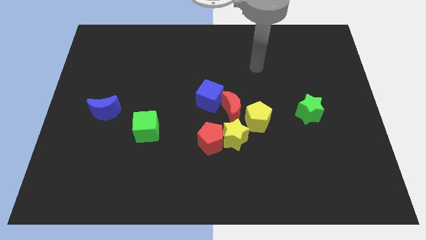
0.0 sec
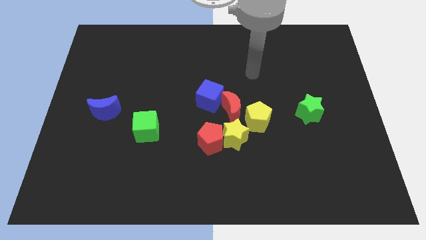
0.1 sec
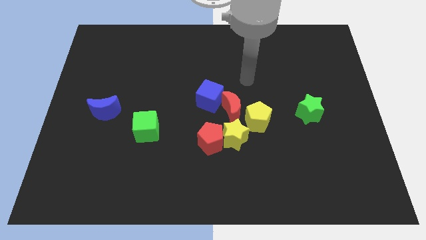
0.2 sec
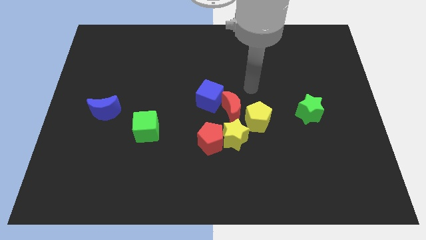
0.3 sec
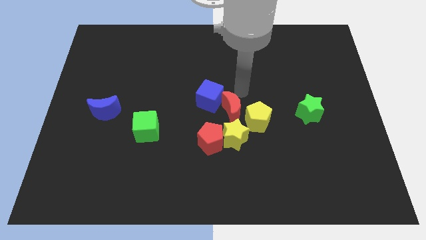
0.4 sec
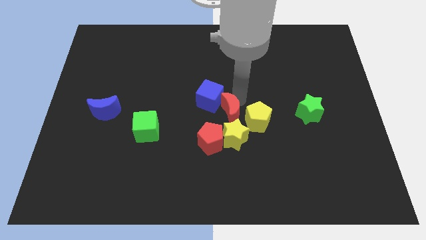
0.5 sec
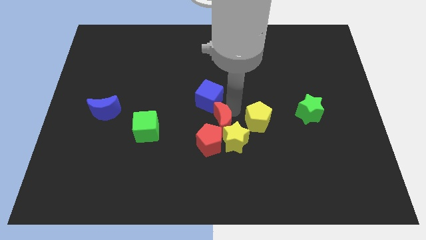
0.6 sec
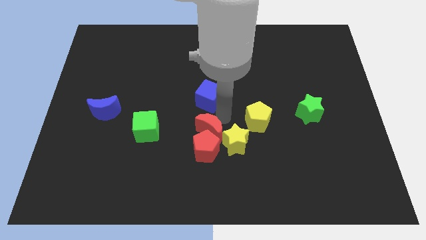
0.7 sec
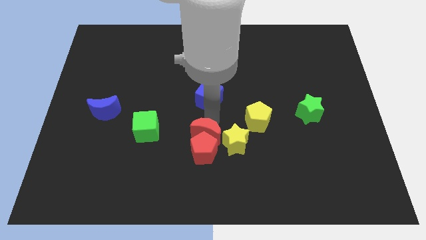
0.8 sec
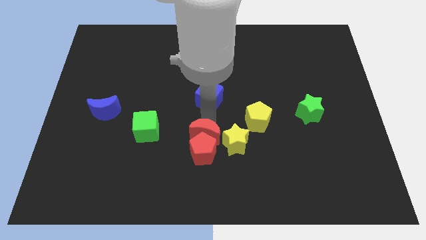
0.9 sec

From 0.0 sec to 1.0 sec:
separate the blue cube from the red moon

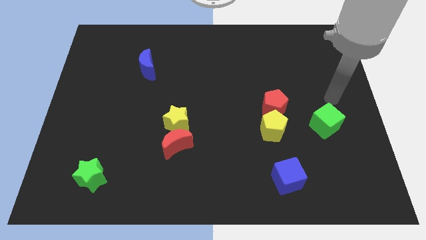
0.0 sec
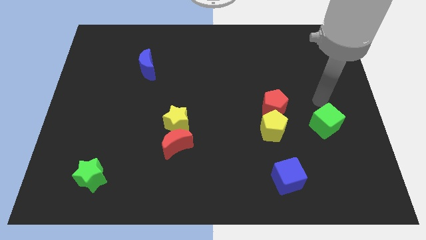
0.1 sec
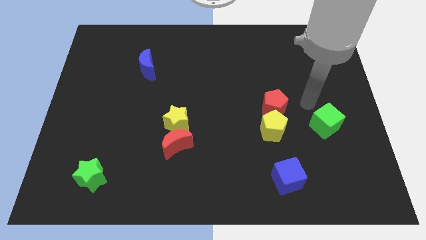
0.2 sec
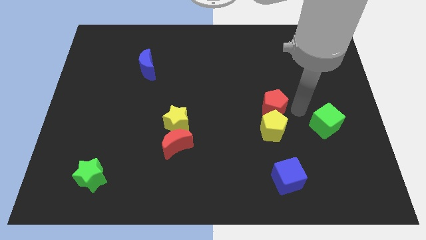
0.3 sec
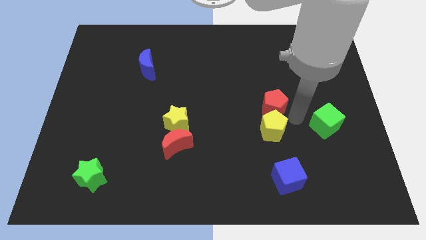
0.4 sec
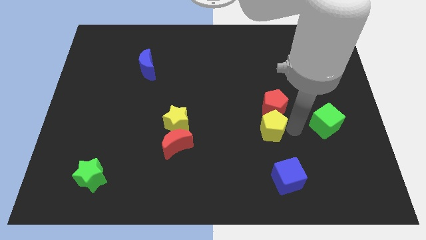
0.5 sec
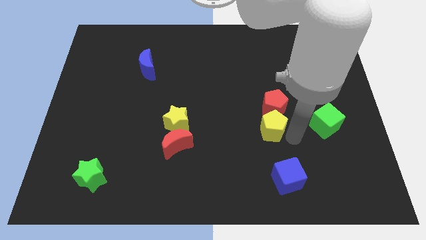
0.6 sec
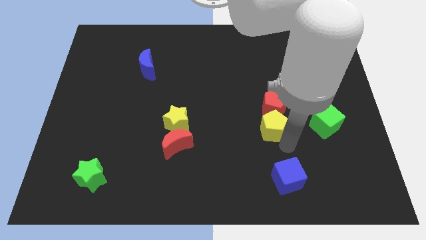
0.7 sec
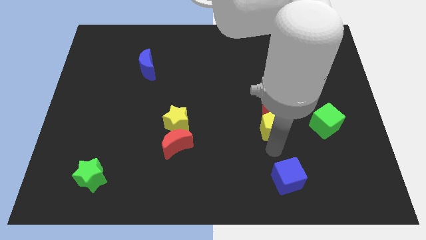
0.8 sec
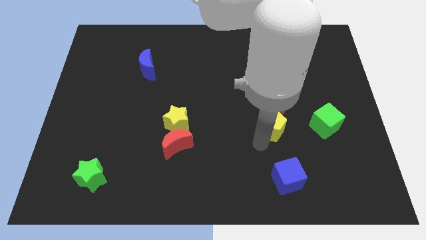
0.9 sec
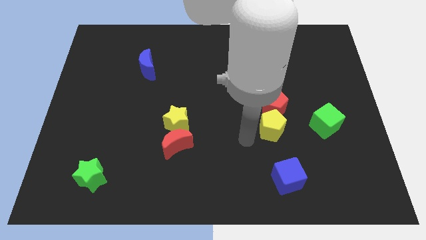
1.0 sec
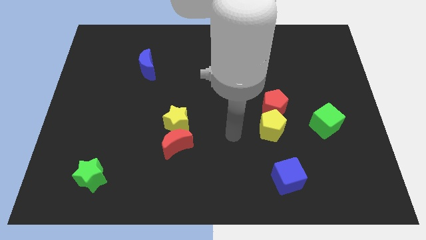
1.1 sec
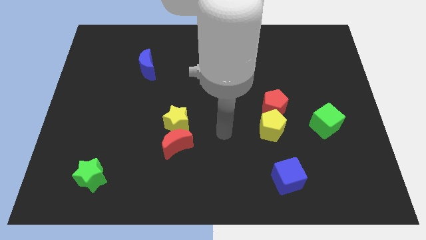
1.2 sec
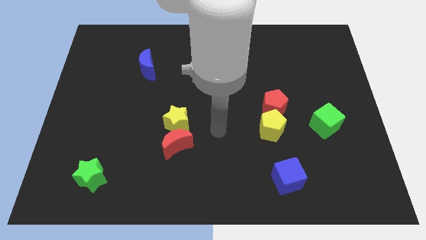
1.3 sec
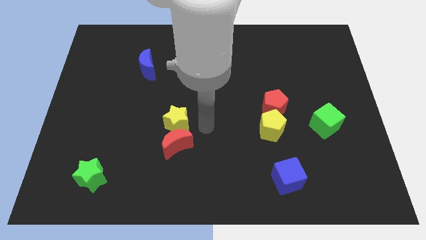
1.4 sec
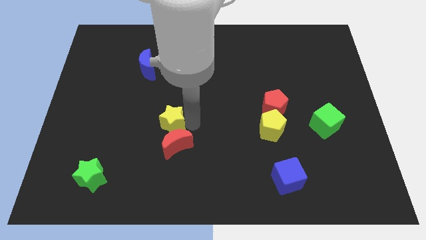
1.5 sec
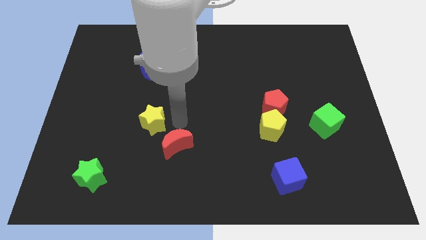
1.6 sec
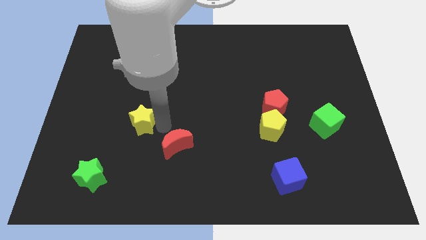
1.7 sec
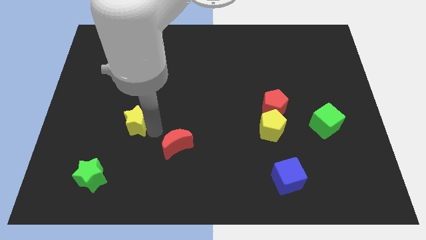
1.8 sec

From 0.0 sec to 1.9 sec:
pull the red moon apart from the yellow star

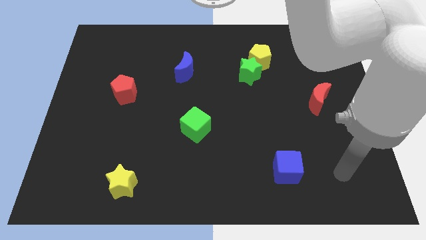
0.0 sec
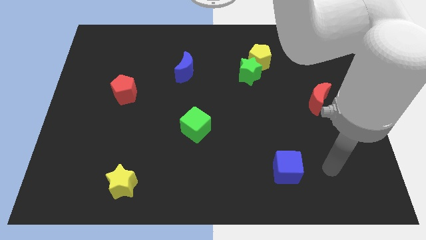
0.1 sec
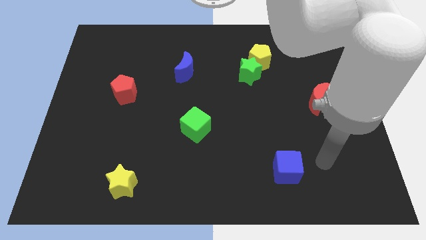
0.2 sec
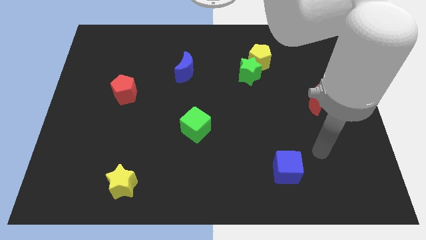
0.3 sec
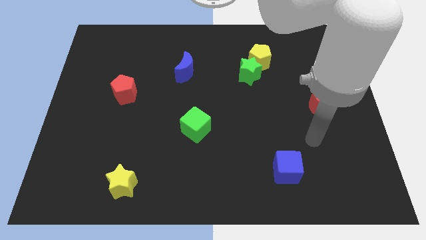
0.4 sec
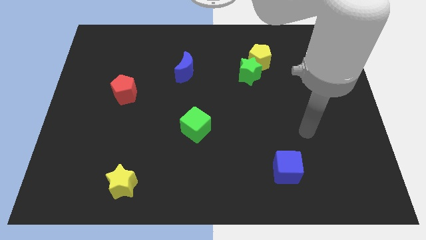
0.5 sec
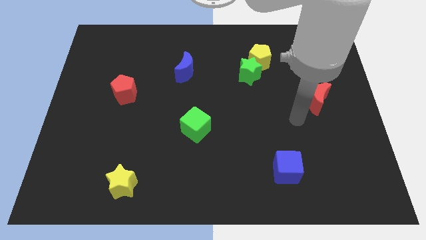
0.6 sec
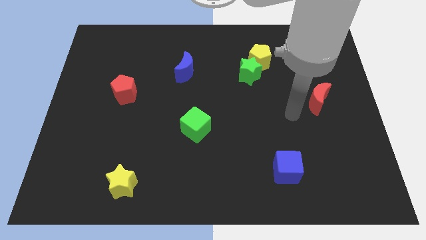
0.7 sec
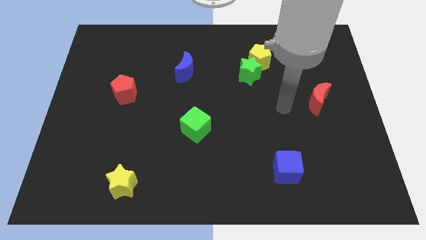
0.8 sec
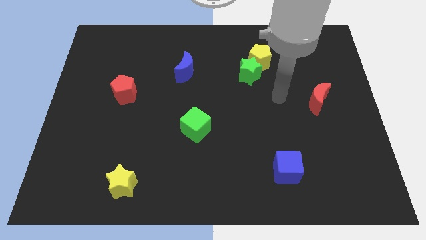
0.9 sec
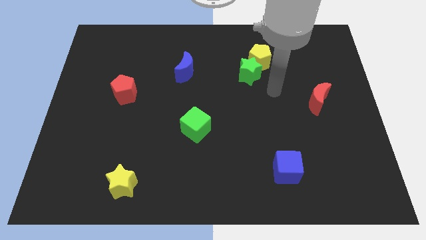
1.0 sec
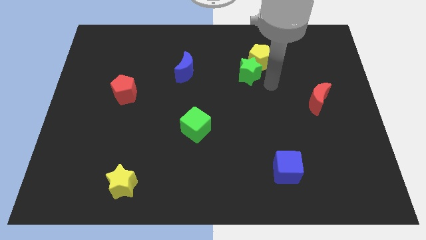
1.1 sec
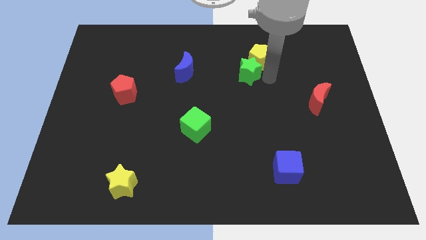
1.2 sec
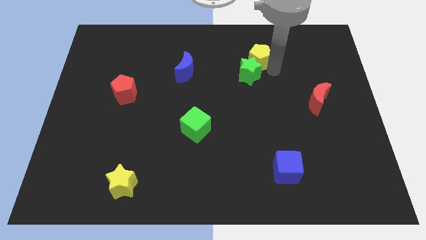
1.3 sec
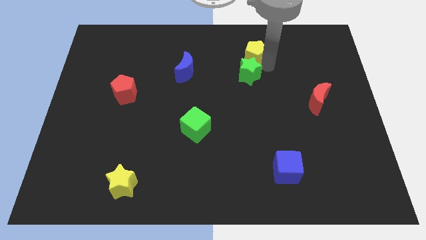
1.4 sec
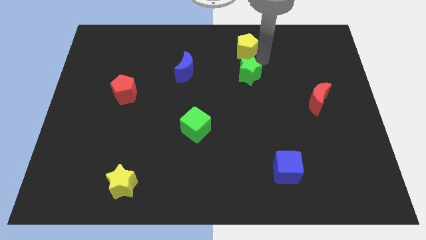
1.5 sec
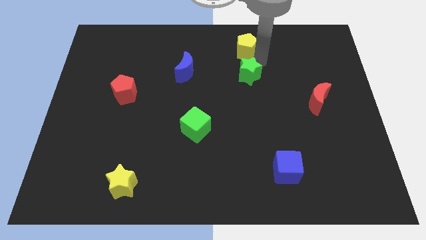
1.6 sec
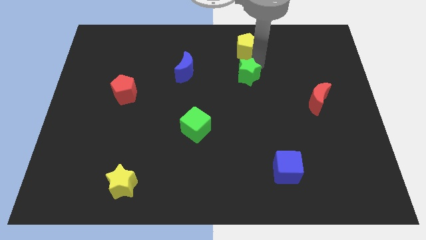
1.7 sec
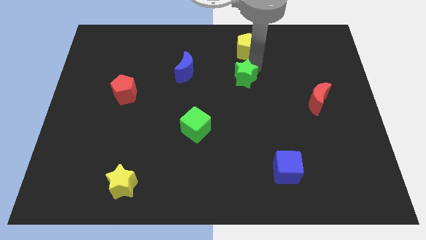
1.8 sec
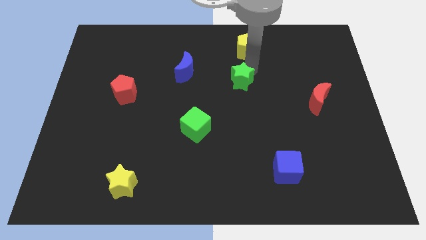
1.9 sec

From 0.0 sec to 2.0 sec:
move the green star away from the yellow pentagon

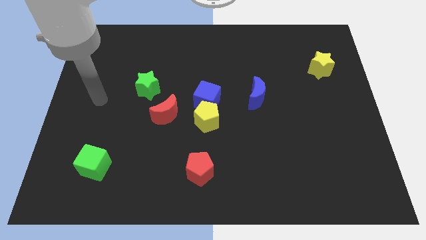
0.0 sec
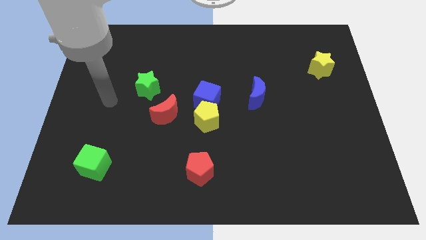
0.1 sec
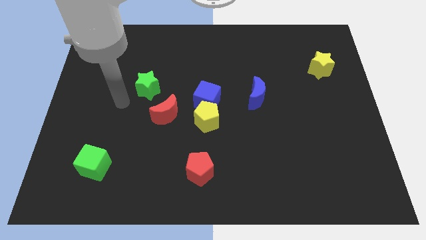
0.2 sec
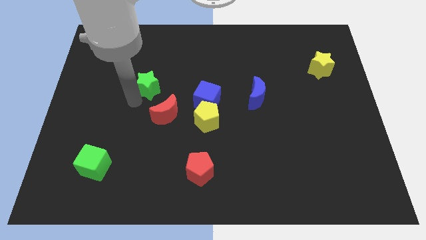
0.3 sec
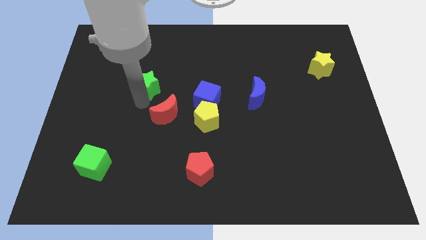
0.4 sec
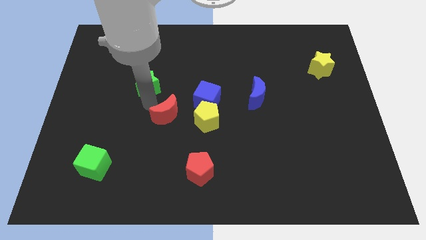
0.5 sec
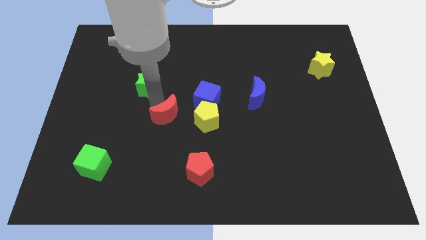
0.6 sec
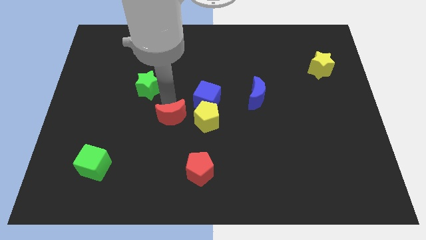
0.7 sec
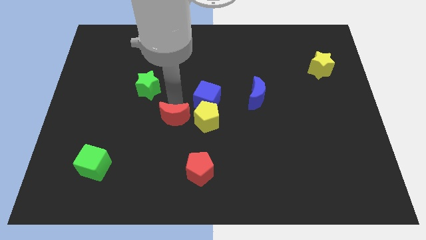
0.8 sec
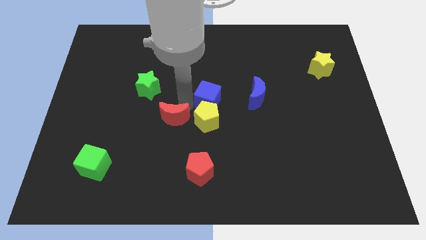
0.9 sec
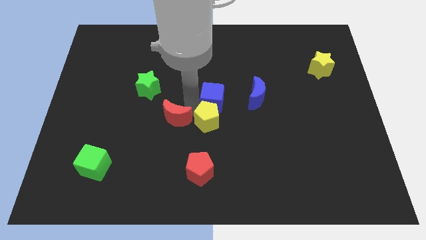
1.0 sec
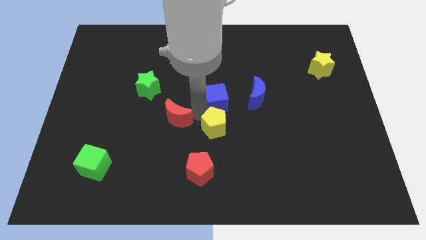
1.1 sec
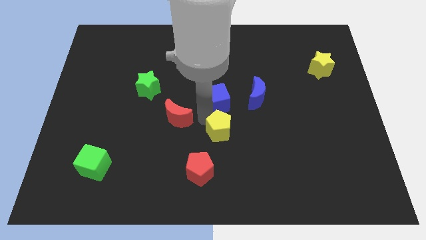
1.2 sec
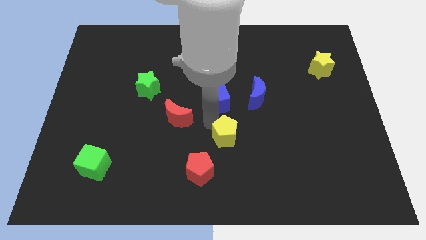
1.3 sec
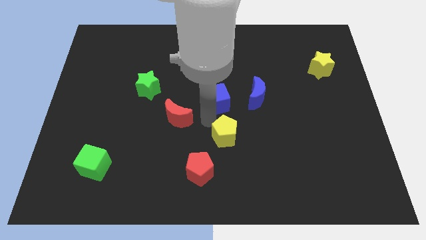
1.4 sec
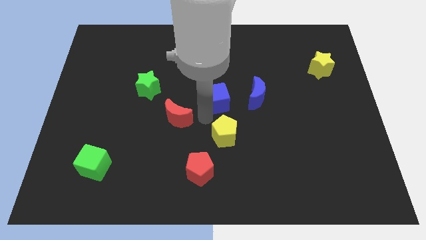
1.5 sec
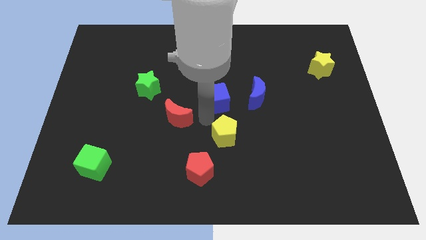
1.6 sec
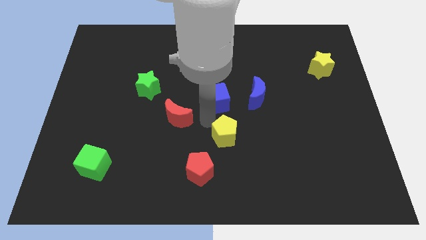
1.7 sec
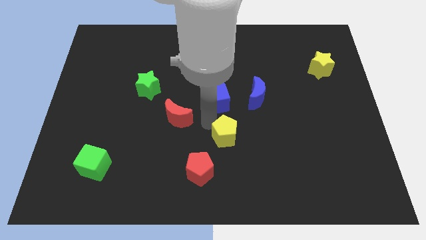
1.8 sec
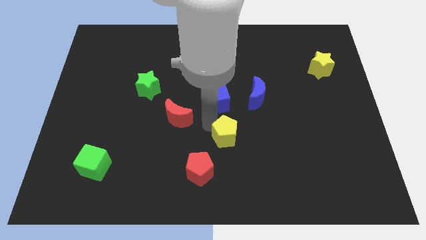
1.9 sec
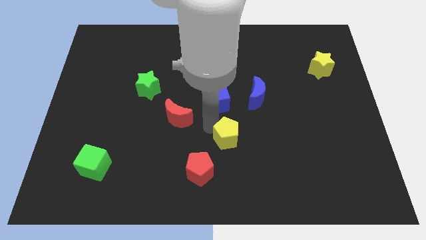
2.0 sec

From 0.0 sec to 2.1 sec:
separate the yellow pentagon from the blue cube and red moon

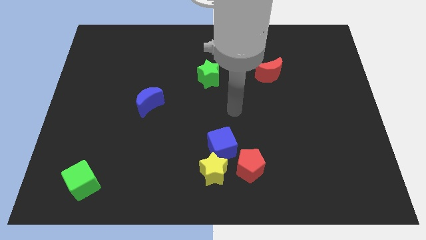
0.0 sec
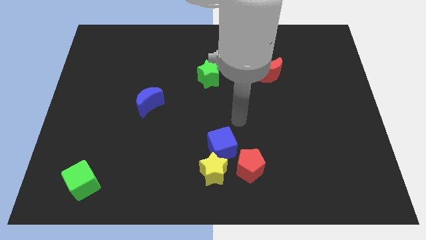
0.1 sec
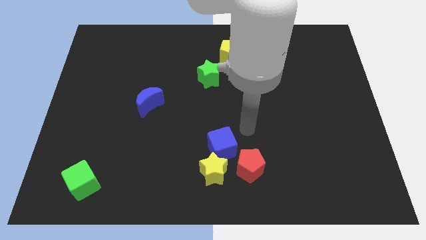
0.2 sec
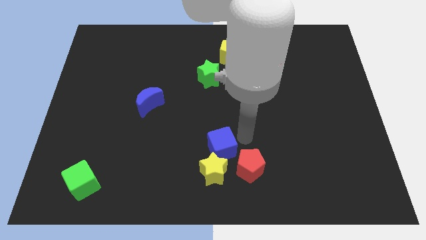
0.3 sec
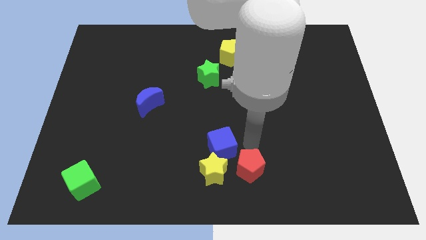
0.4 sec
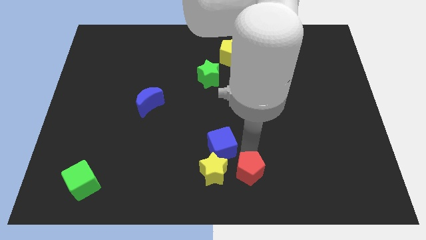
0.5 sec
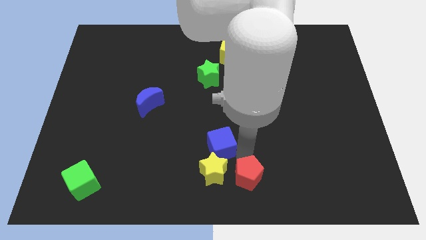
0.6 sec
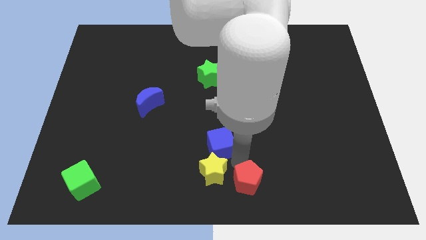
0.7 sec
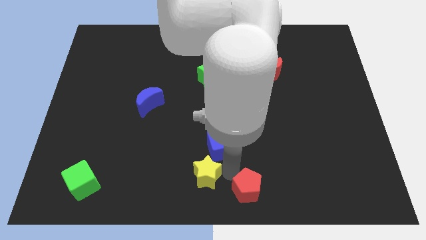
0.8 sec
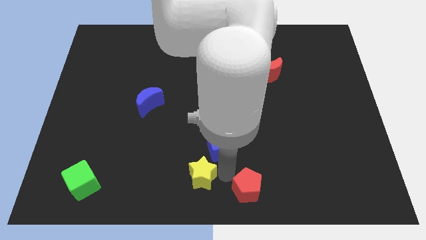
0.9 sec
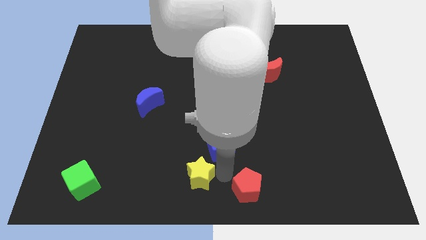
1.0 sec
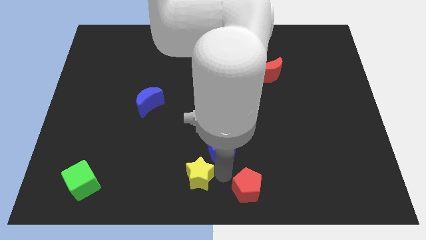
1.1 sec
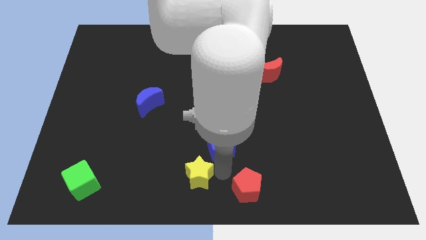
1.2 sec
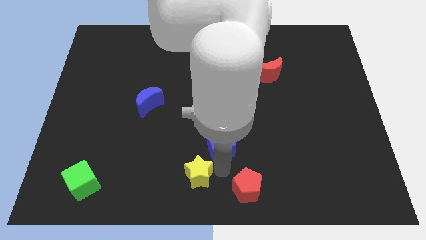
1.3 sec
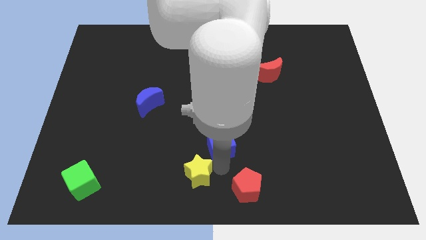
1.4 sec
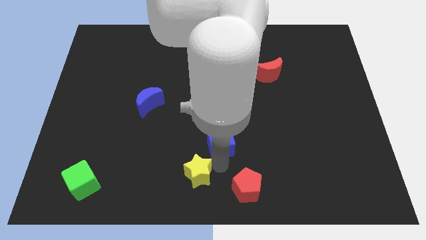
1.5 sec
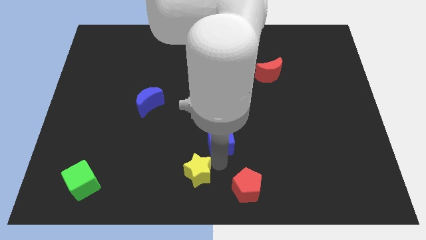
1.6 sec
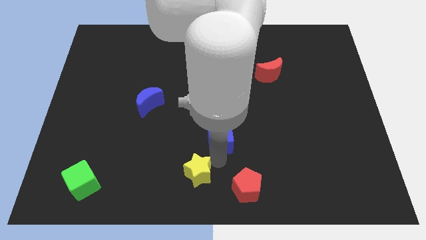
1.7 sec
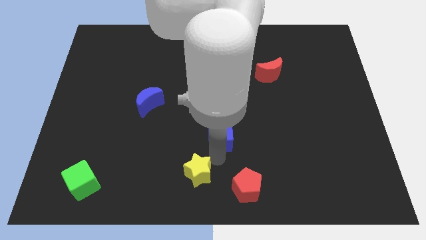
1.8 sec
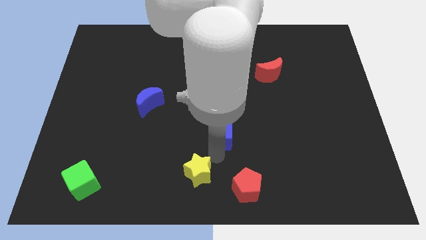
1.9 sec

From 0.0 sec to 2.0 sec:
move the blue cube away from the yellow star and red pentagon

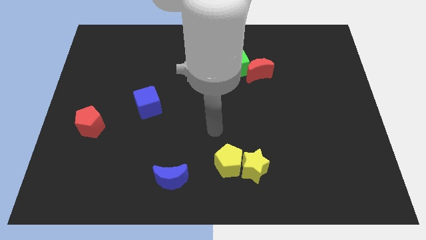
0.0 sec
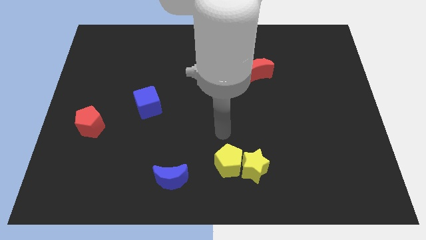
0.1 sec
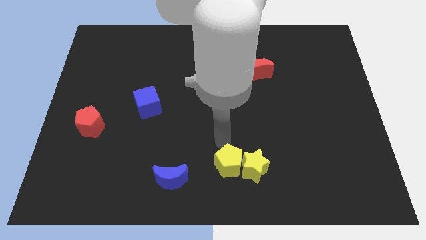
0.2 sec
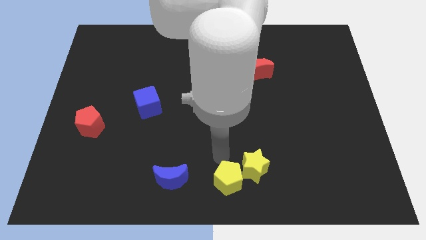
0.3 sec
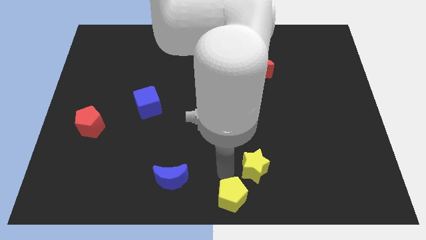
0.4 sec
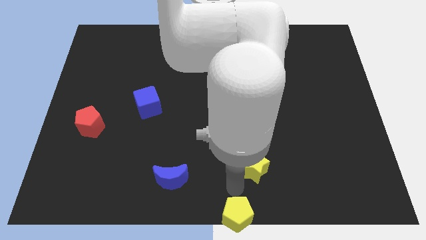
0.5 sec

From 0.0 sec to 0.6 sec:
move the yellow star away from the yellow pentagon
